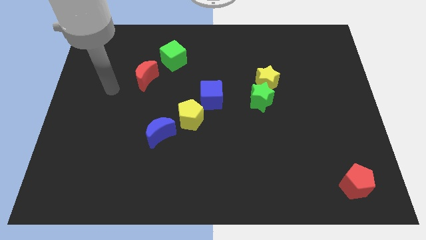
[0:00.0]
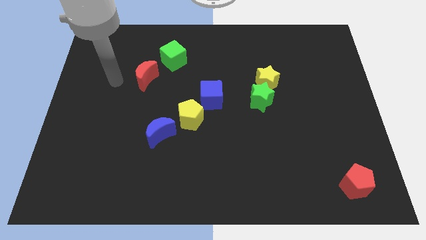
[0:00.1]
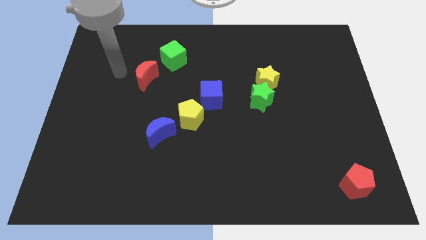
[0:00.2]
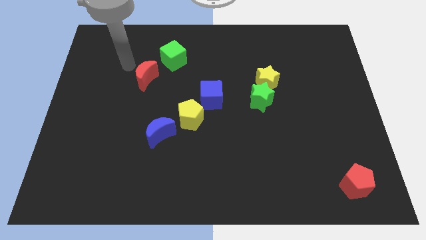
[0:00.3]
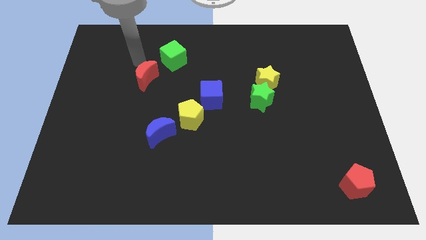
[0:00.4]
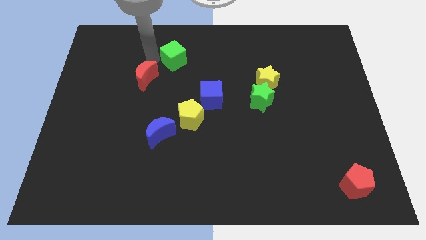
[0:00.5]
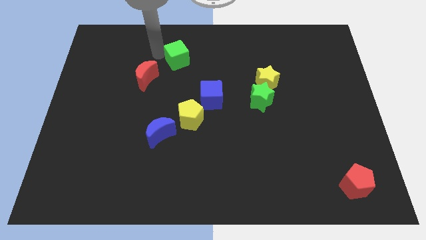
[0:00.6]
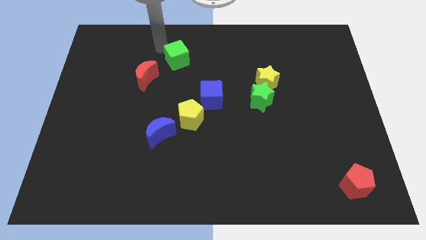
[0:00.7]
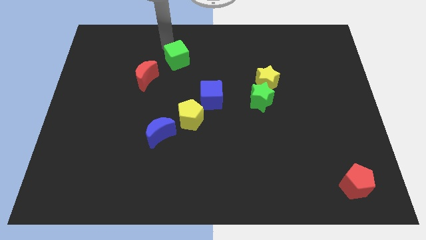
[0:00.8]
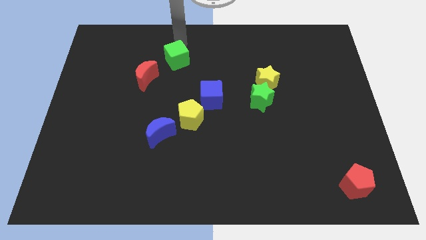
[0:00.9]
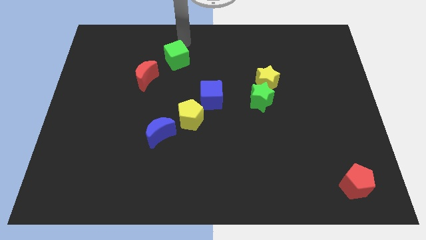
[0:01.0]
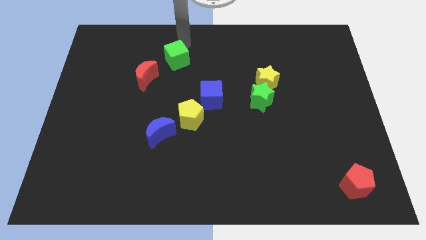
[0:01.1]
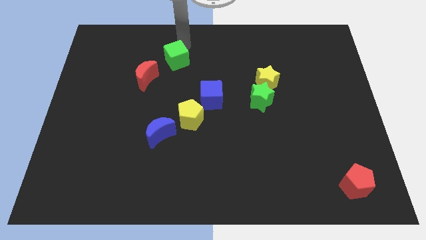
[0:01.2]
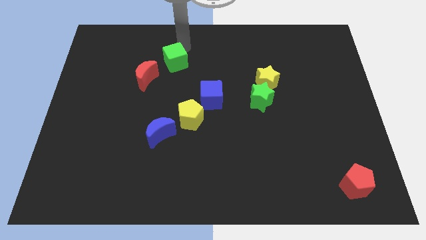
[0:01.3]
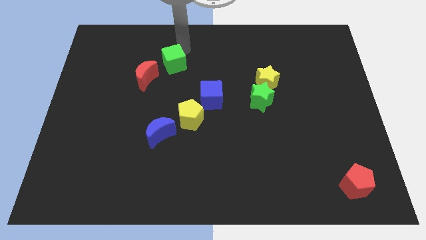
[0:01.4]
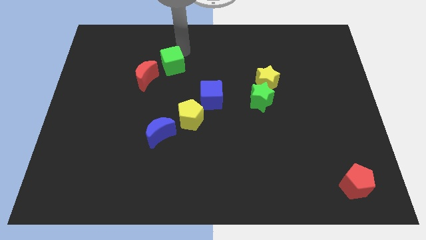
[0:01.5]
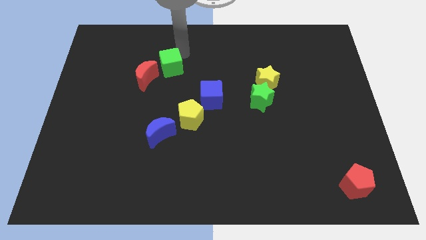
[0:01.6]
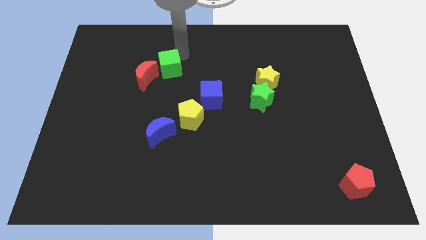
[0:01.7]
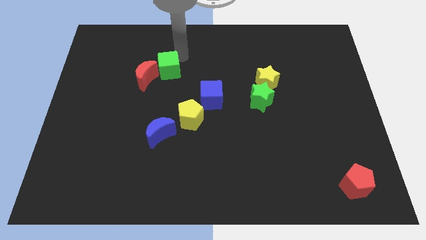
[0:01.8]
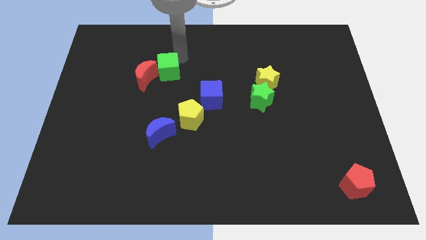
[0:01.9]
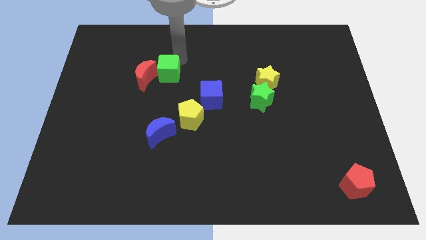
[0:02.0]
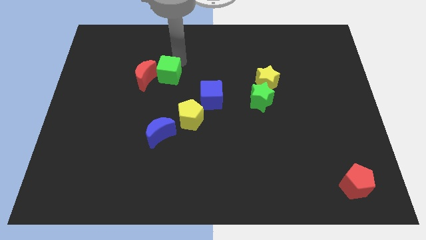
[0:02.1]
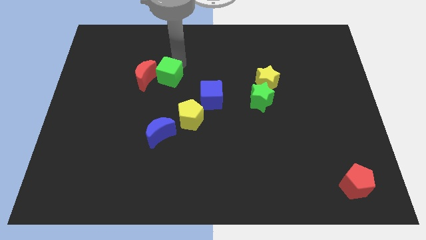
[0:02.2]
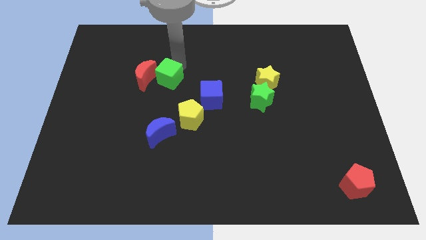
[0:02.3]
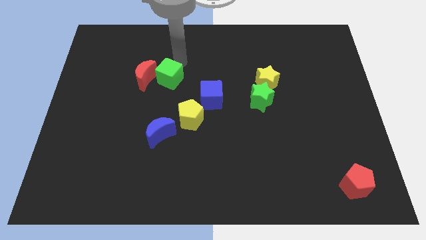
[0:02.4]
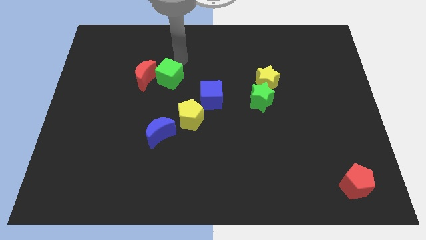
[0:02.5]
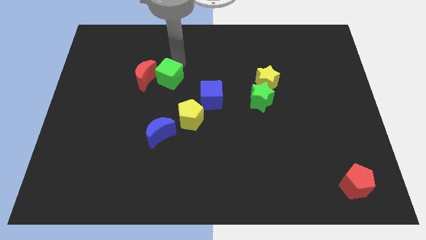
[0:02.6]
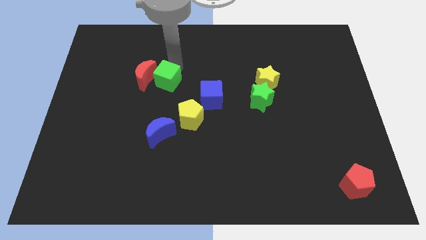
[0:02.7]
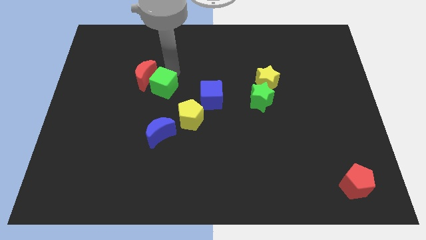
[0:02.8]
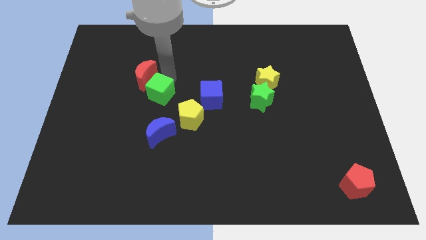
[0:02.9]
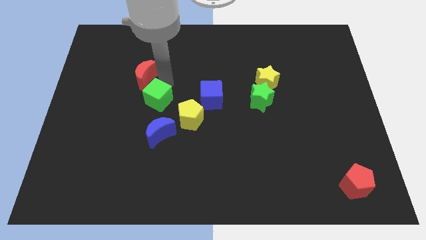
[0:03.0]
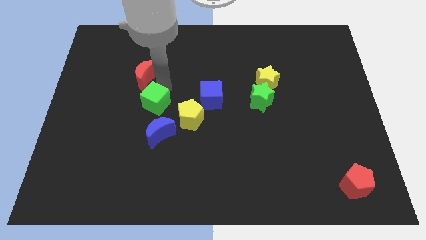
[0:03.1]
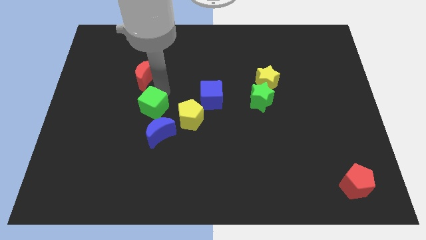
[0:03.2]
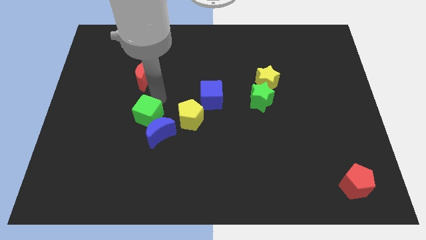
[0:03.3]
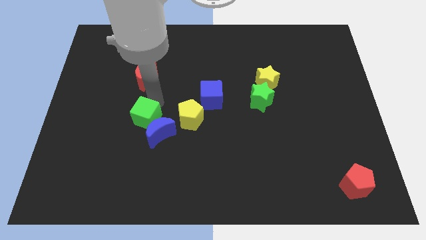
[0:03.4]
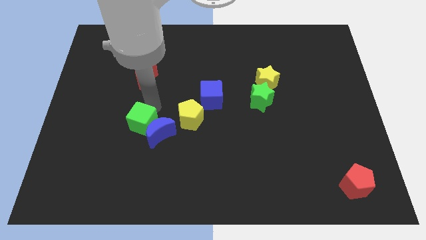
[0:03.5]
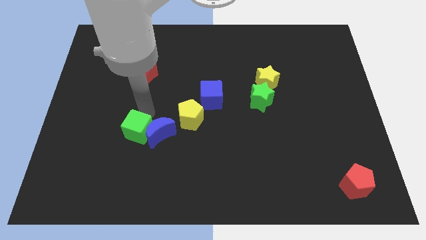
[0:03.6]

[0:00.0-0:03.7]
slide the green cube downwards

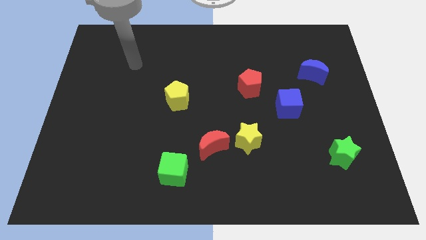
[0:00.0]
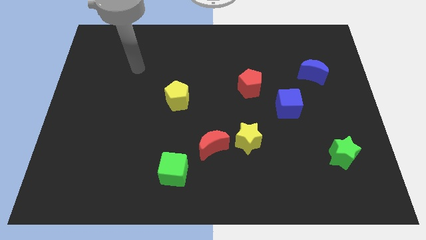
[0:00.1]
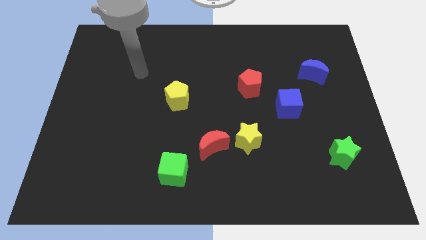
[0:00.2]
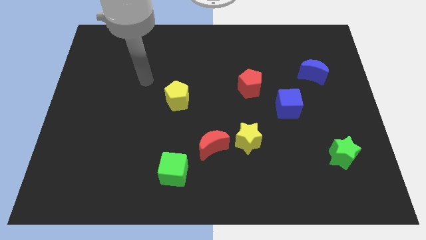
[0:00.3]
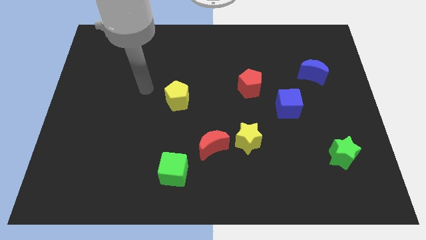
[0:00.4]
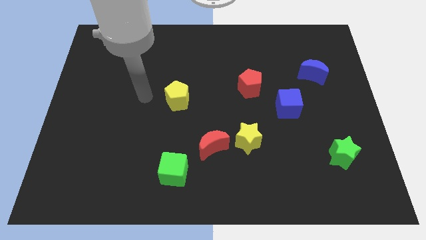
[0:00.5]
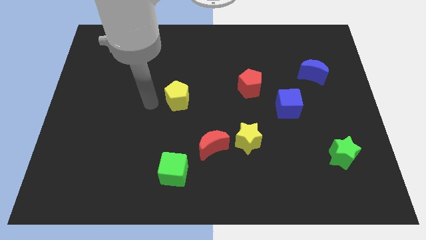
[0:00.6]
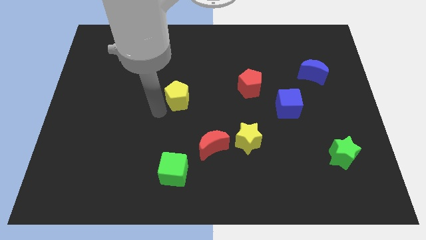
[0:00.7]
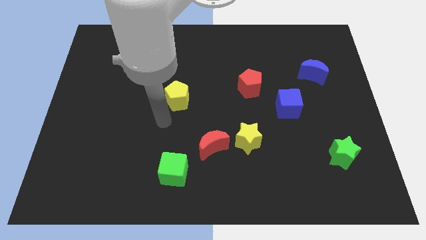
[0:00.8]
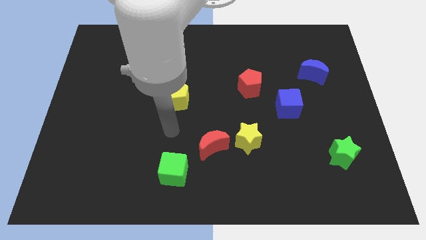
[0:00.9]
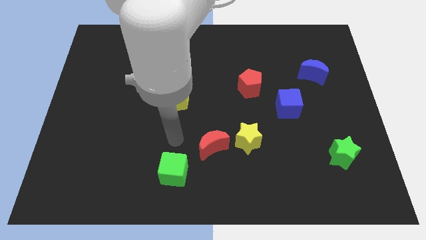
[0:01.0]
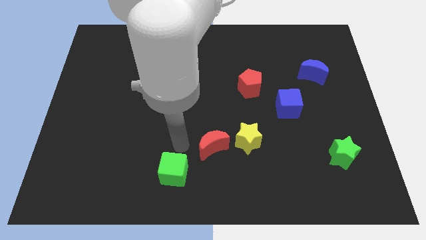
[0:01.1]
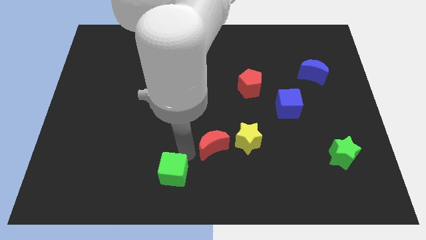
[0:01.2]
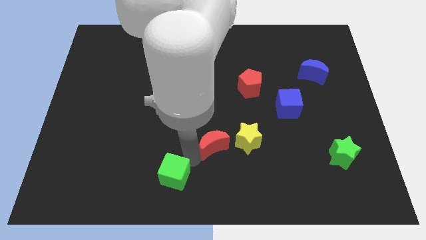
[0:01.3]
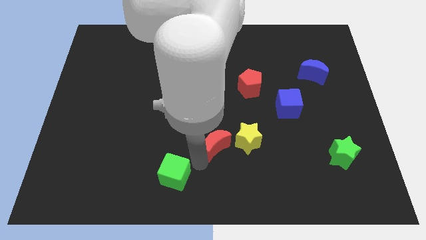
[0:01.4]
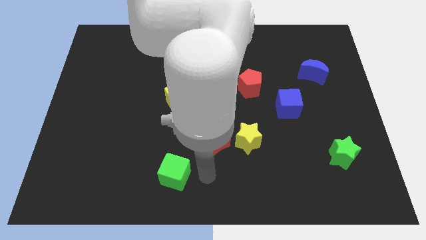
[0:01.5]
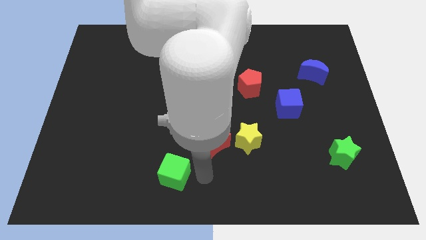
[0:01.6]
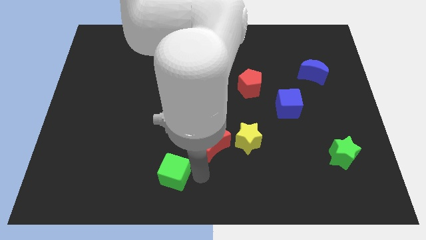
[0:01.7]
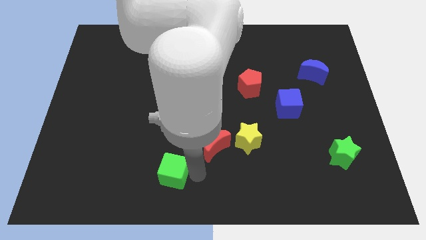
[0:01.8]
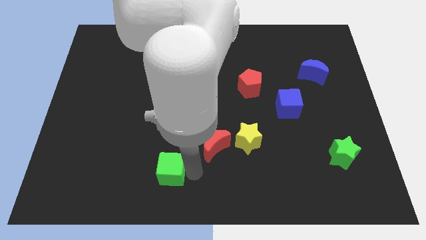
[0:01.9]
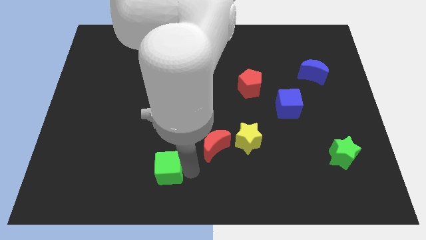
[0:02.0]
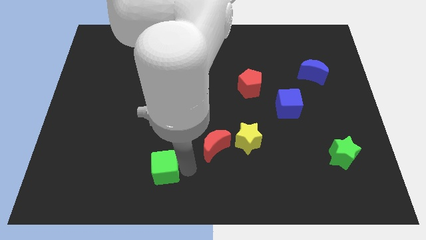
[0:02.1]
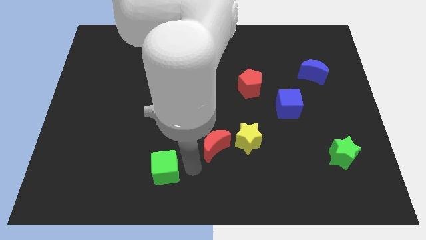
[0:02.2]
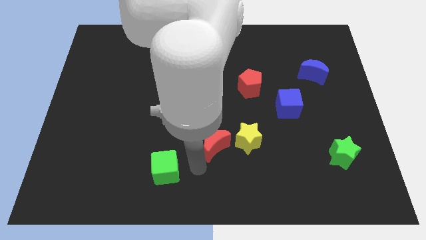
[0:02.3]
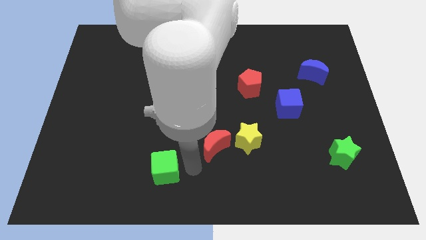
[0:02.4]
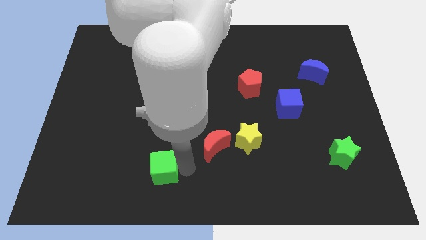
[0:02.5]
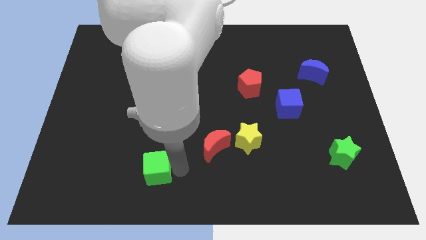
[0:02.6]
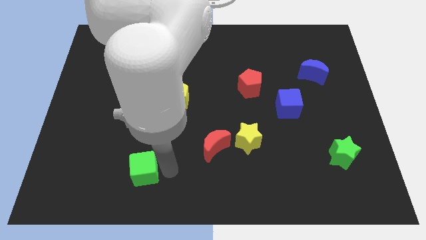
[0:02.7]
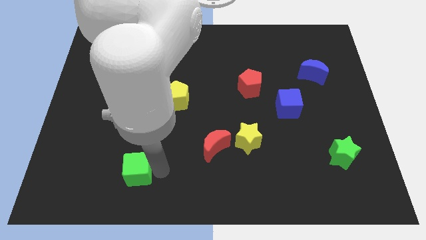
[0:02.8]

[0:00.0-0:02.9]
slightly push the green cube to the left

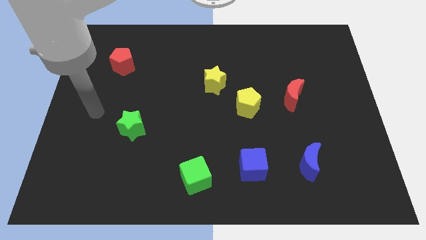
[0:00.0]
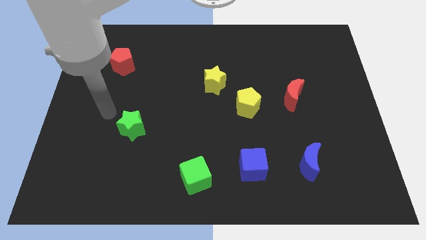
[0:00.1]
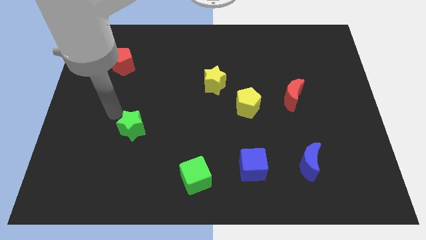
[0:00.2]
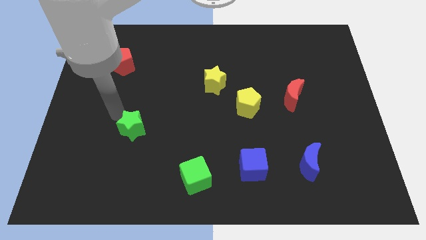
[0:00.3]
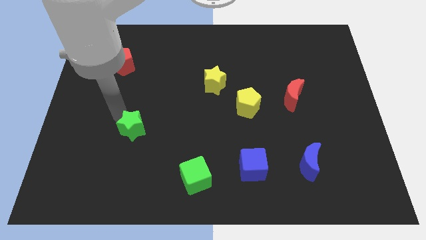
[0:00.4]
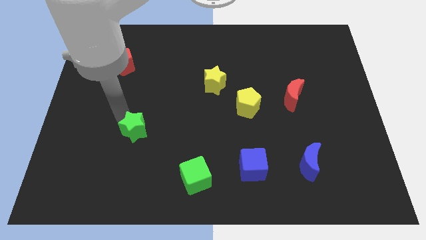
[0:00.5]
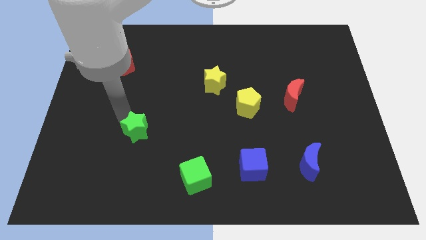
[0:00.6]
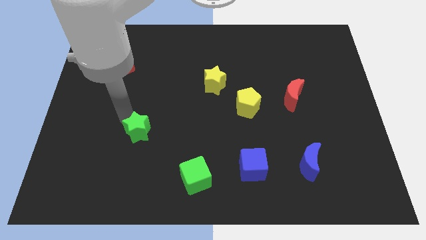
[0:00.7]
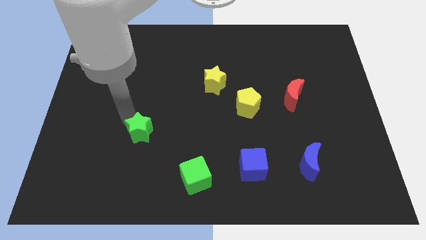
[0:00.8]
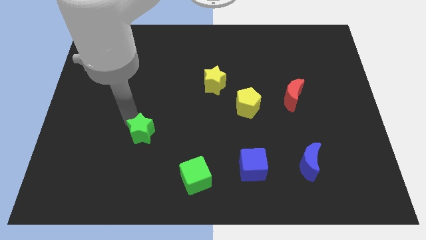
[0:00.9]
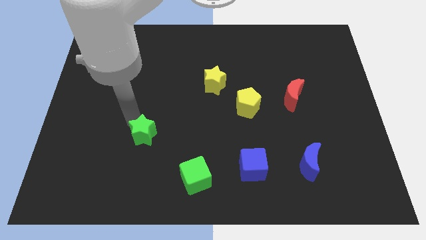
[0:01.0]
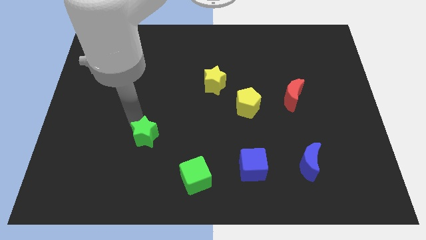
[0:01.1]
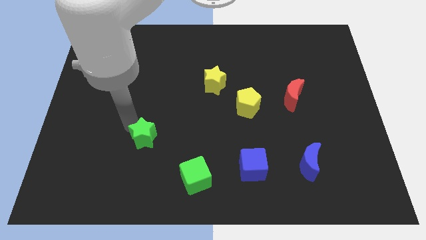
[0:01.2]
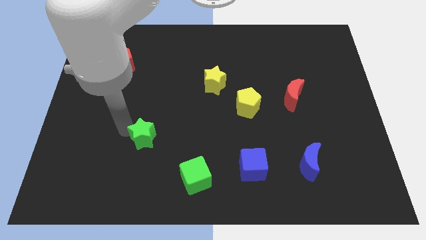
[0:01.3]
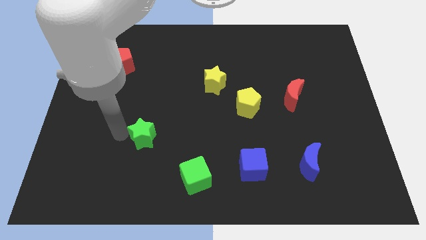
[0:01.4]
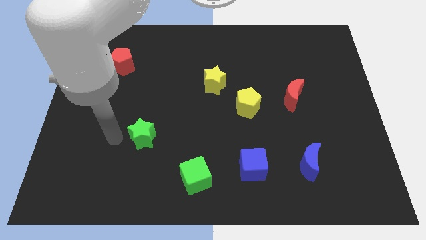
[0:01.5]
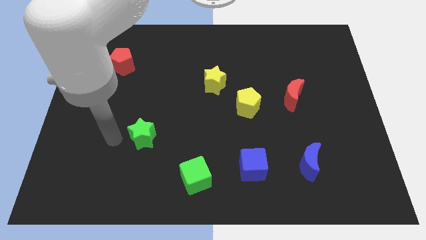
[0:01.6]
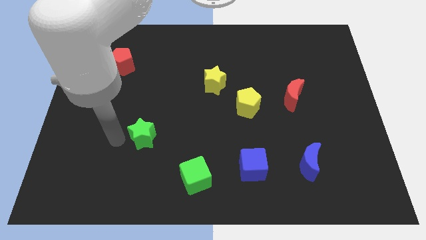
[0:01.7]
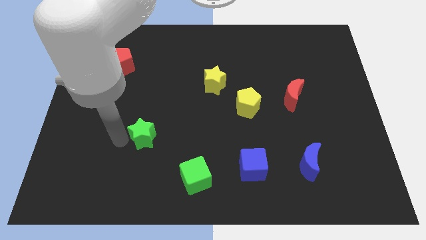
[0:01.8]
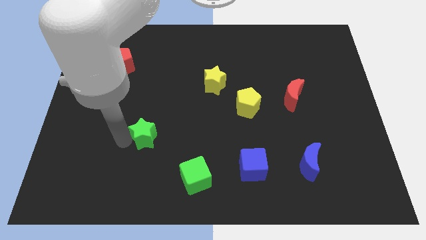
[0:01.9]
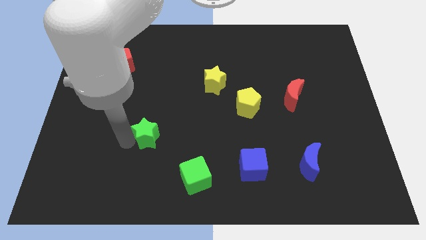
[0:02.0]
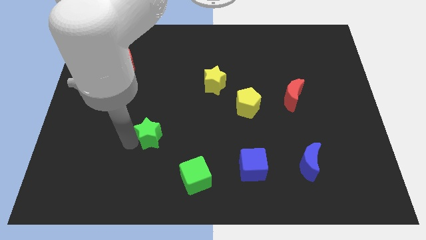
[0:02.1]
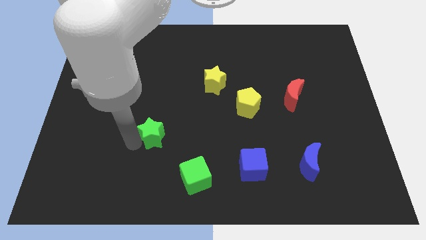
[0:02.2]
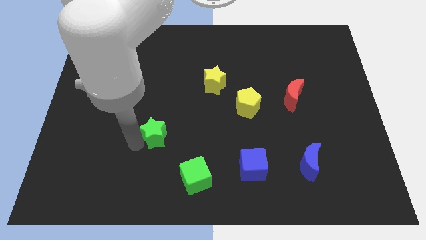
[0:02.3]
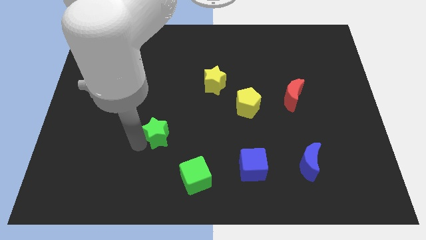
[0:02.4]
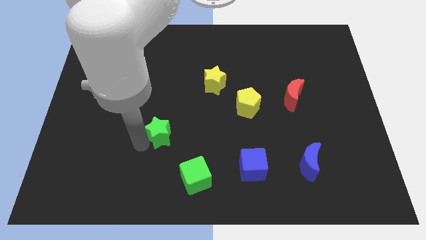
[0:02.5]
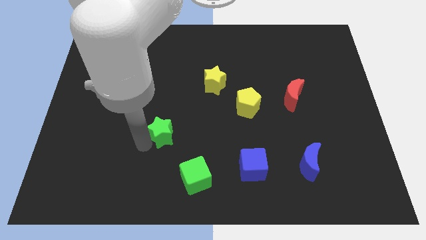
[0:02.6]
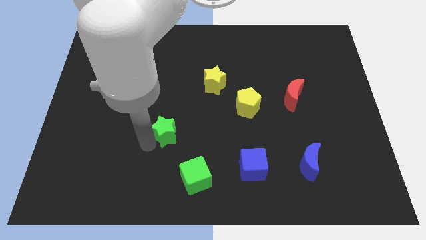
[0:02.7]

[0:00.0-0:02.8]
slightly push the green star to the right
